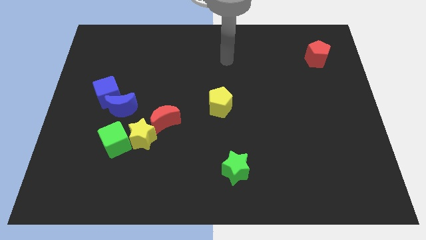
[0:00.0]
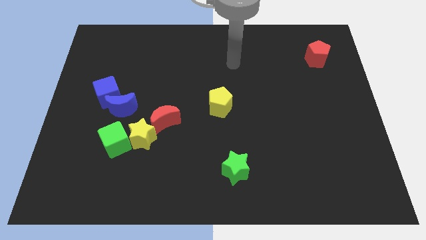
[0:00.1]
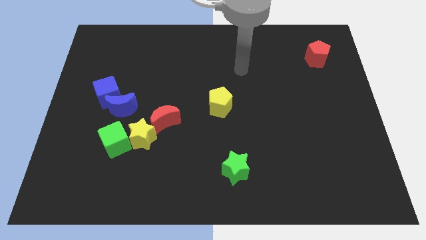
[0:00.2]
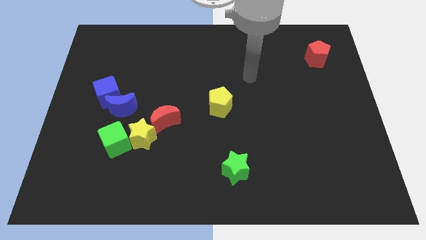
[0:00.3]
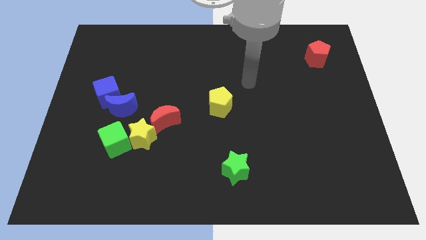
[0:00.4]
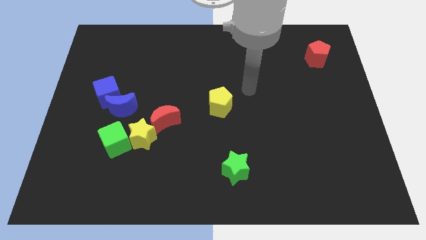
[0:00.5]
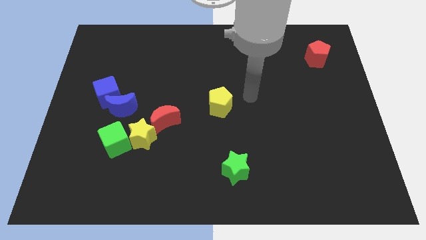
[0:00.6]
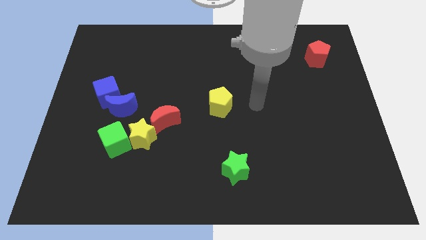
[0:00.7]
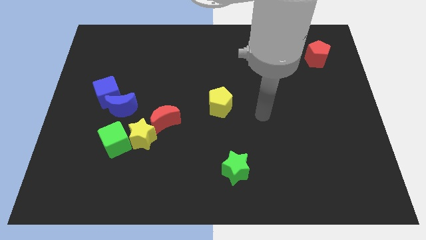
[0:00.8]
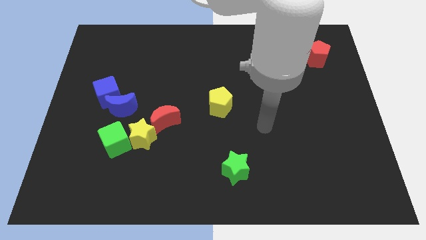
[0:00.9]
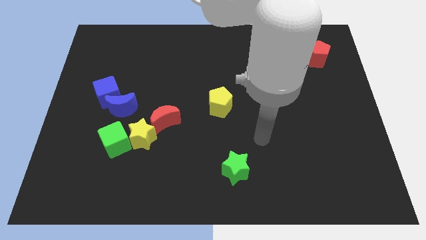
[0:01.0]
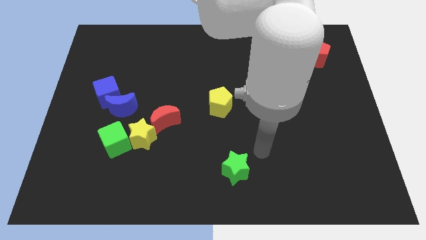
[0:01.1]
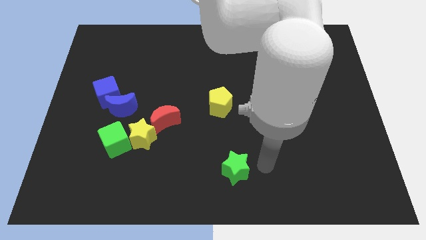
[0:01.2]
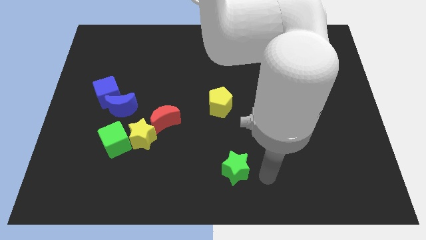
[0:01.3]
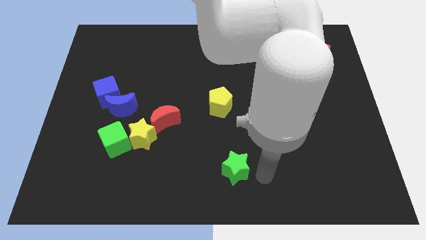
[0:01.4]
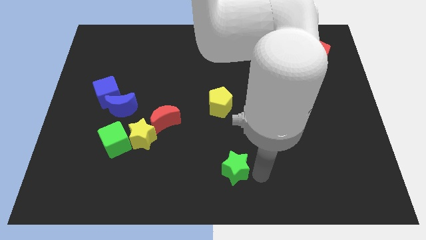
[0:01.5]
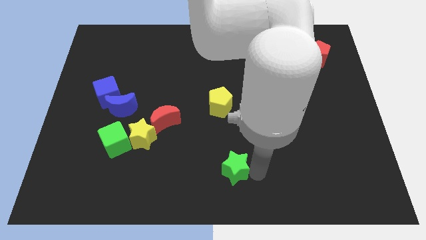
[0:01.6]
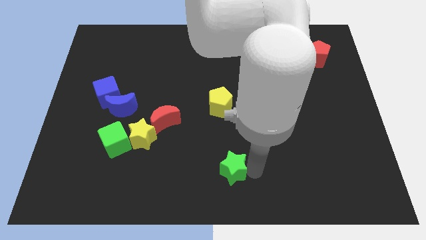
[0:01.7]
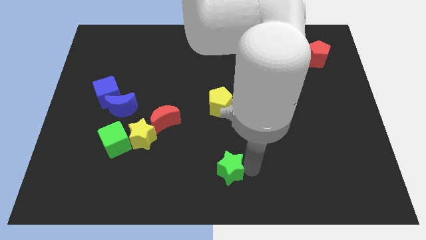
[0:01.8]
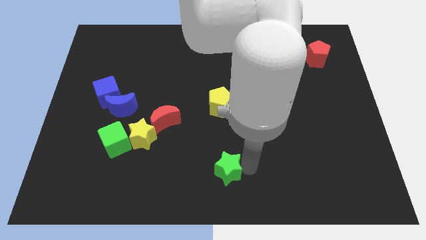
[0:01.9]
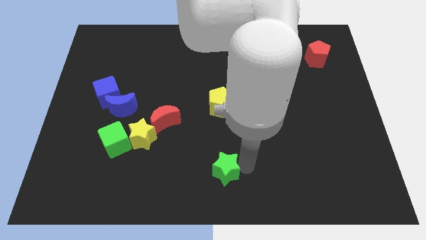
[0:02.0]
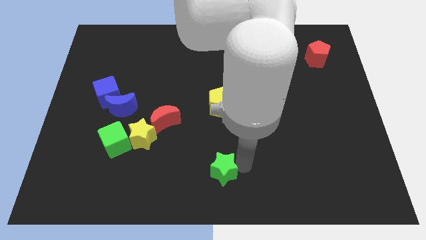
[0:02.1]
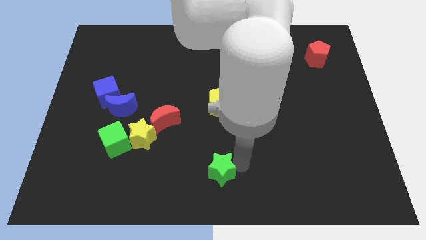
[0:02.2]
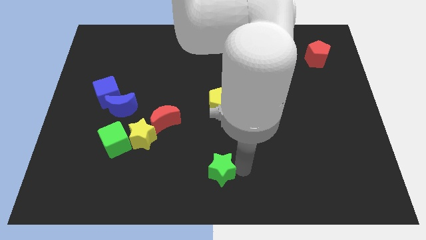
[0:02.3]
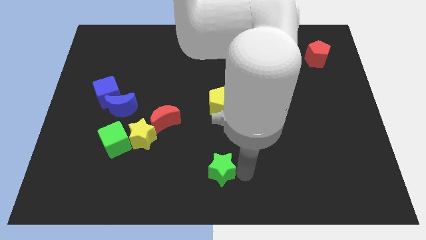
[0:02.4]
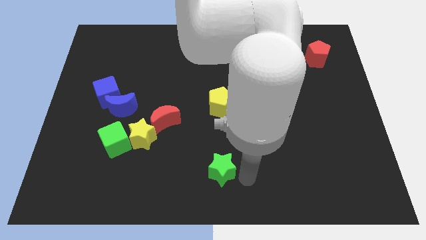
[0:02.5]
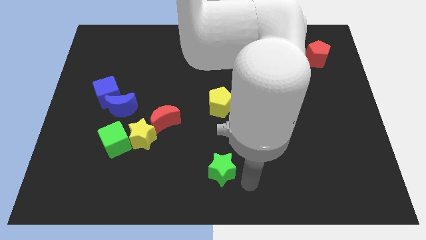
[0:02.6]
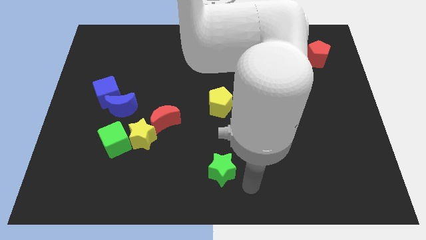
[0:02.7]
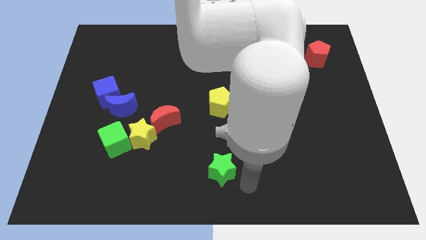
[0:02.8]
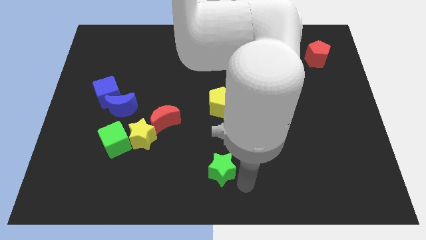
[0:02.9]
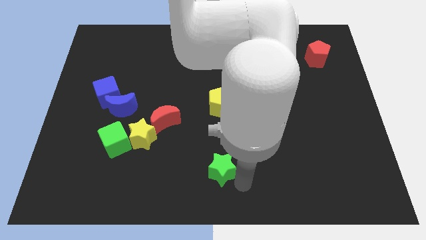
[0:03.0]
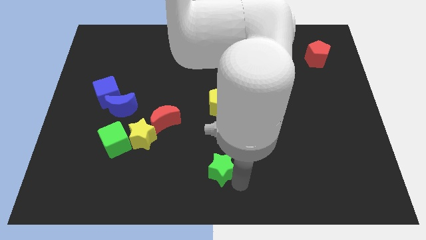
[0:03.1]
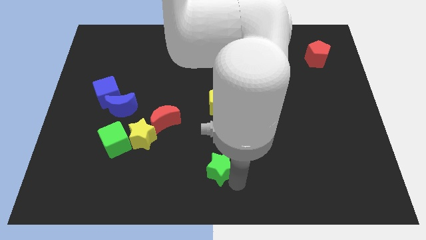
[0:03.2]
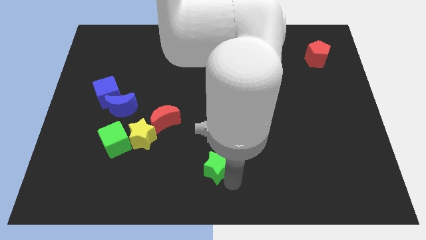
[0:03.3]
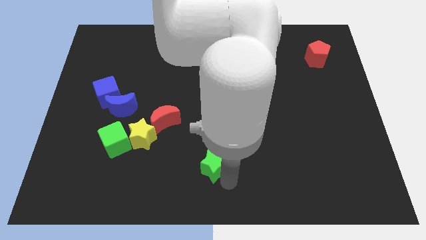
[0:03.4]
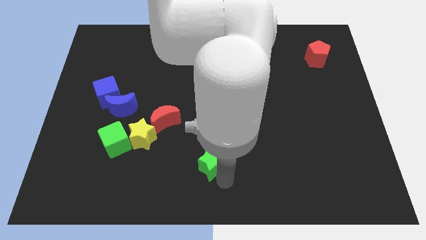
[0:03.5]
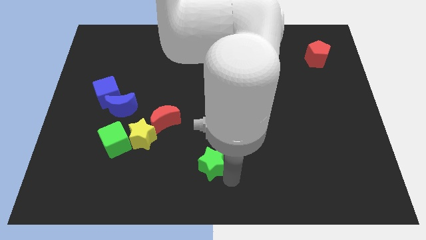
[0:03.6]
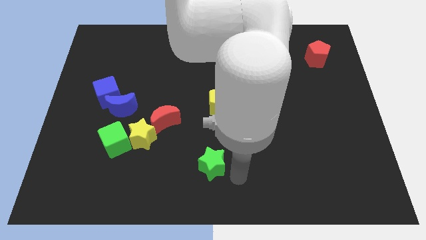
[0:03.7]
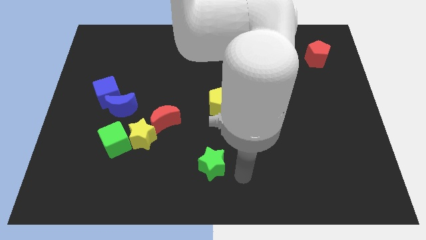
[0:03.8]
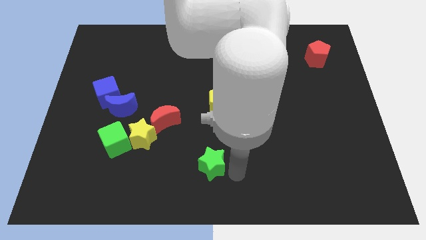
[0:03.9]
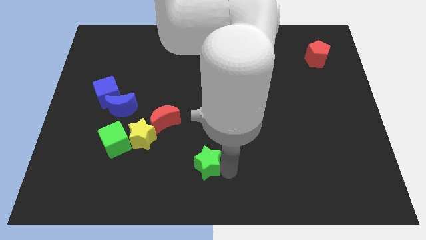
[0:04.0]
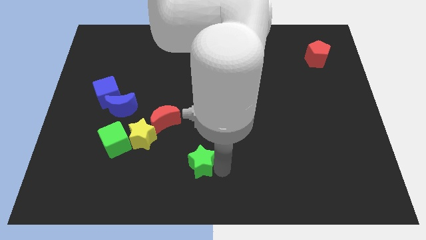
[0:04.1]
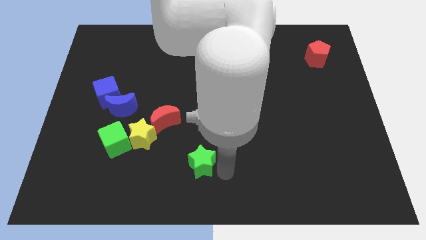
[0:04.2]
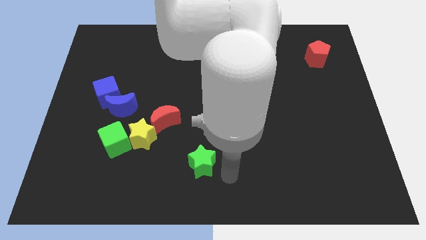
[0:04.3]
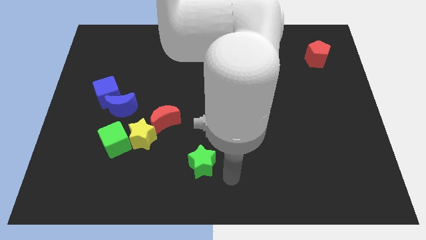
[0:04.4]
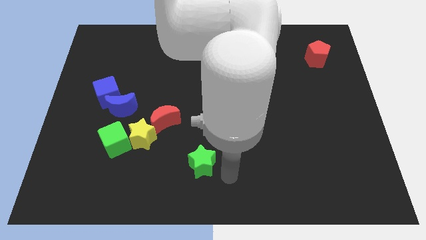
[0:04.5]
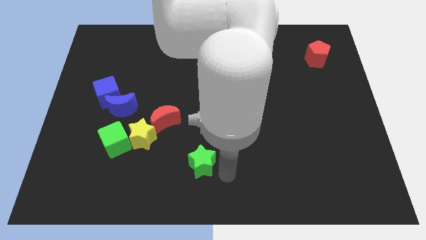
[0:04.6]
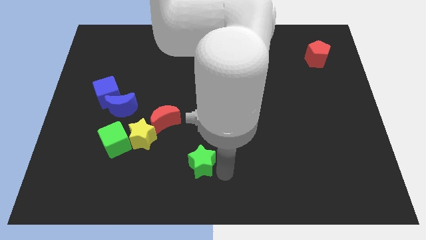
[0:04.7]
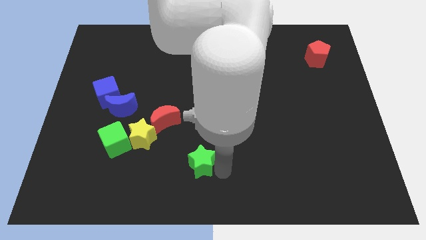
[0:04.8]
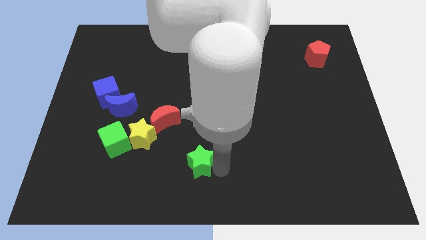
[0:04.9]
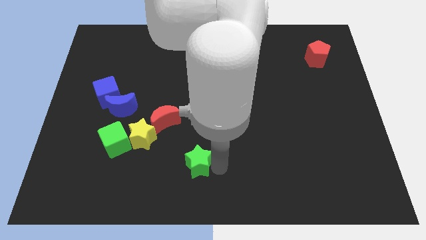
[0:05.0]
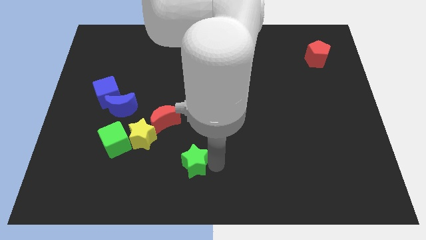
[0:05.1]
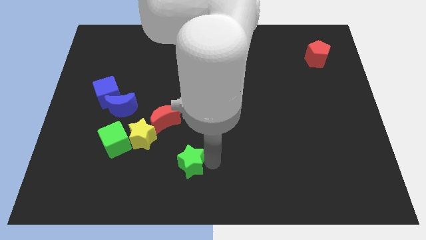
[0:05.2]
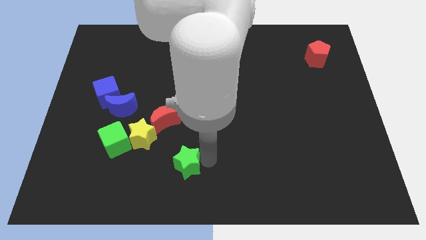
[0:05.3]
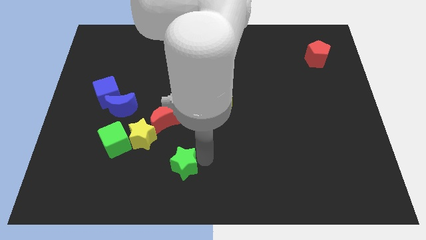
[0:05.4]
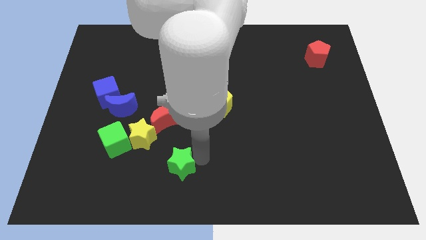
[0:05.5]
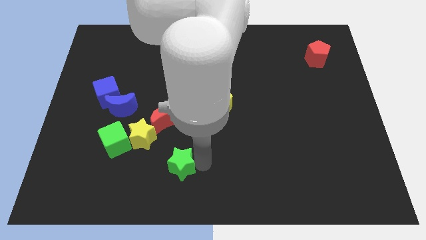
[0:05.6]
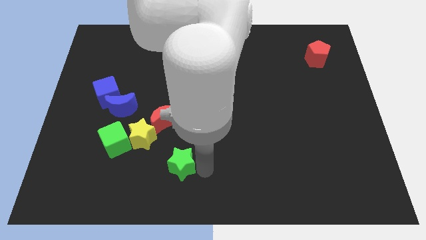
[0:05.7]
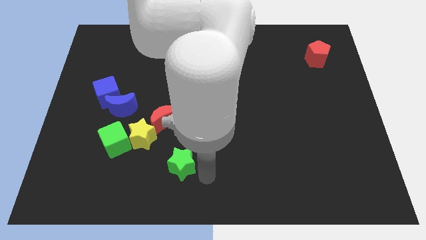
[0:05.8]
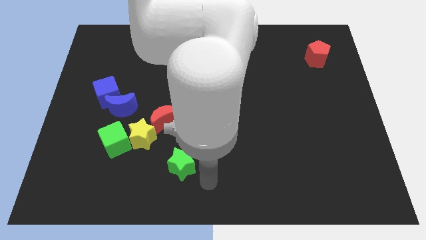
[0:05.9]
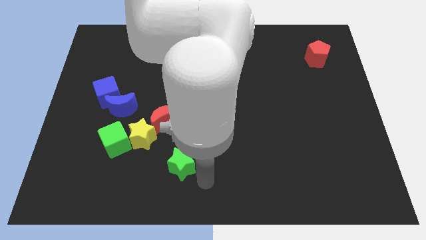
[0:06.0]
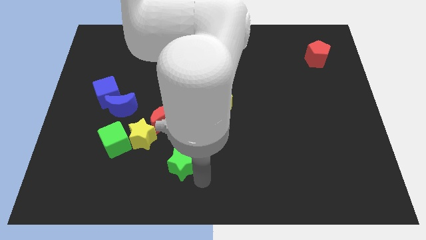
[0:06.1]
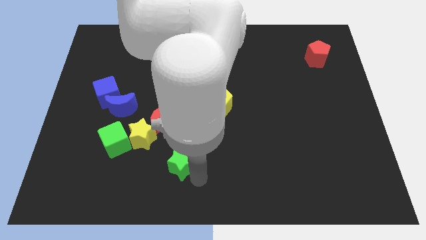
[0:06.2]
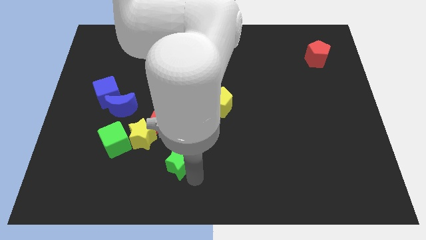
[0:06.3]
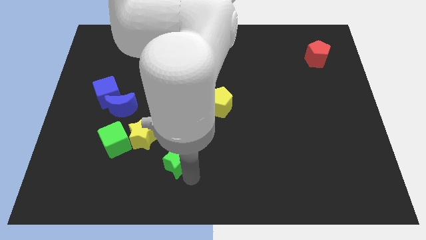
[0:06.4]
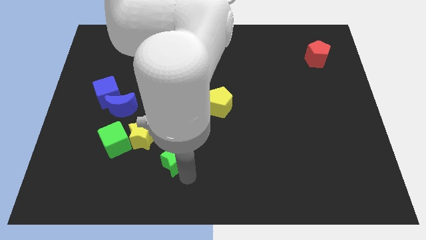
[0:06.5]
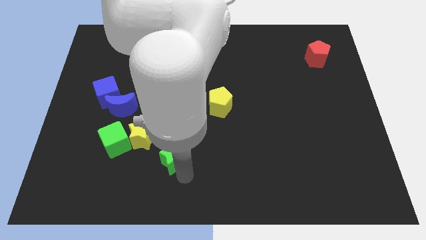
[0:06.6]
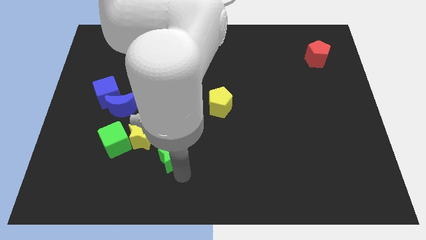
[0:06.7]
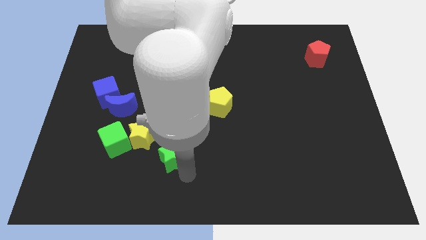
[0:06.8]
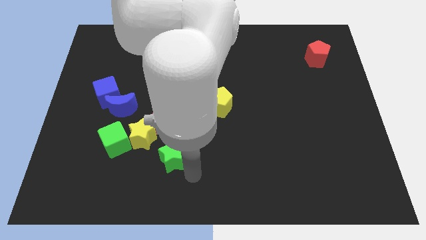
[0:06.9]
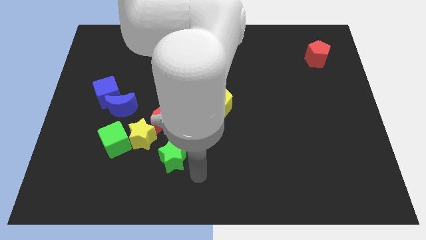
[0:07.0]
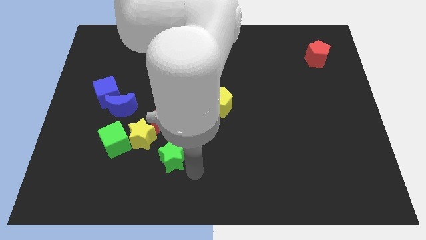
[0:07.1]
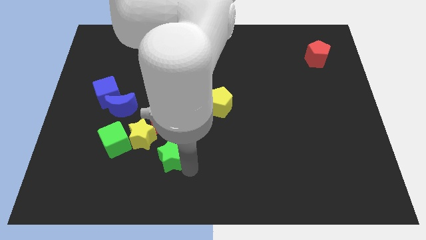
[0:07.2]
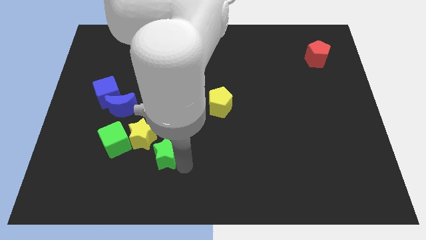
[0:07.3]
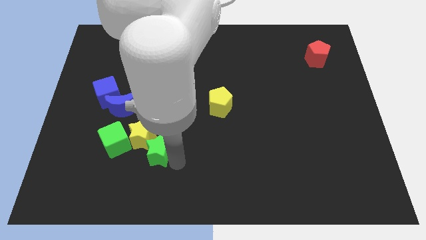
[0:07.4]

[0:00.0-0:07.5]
push the green star to the yellow star
